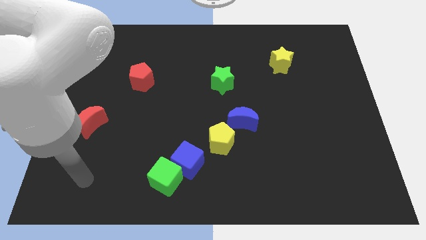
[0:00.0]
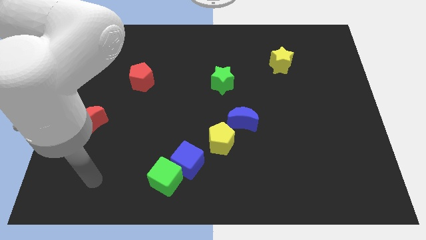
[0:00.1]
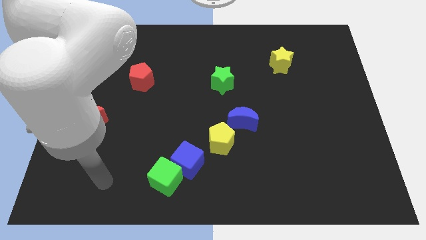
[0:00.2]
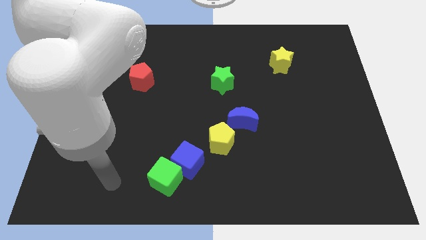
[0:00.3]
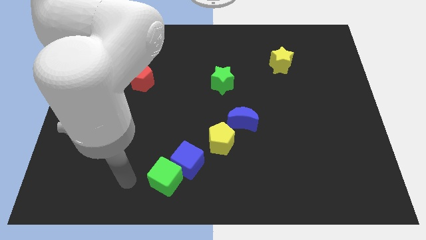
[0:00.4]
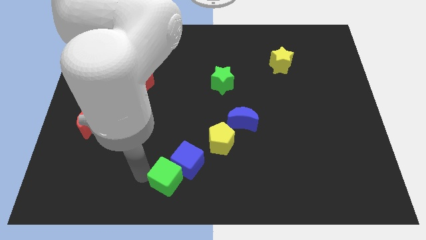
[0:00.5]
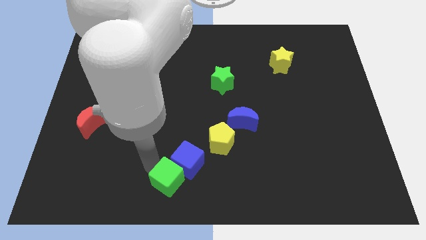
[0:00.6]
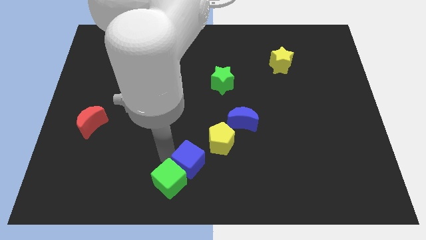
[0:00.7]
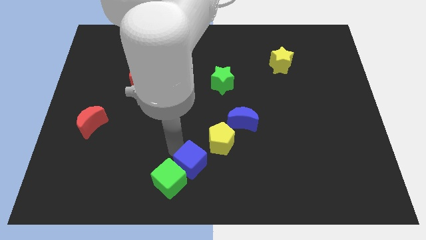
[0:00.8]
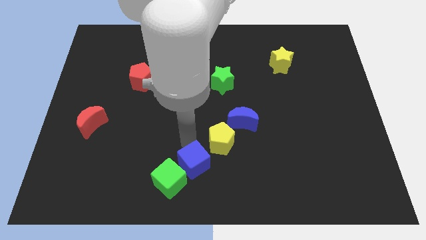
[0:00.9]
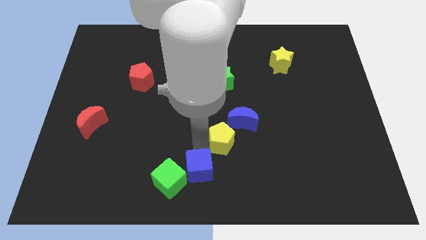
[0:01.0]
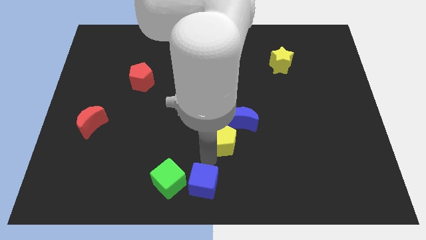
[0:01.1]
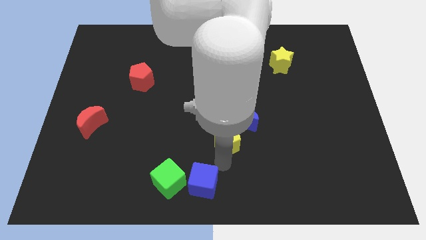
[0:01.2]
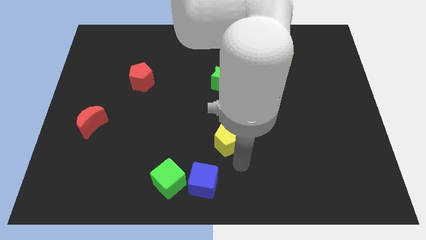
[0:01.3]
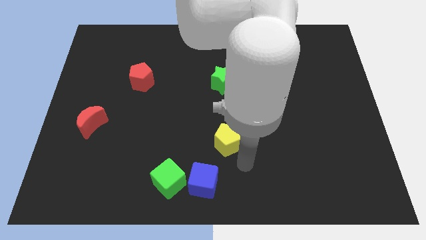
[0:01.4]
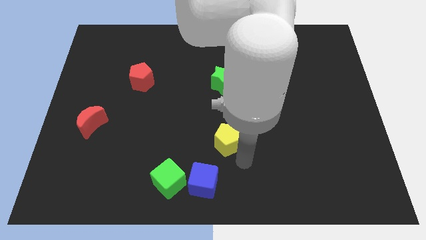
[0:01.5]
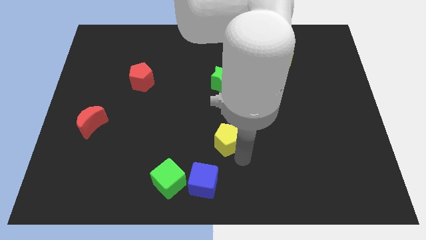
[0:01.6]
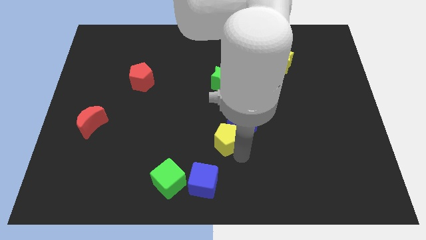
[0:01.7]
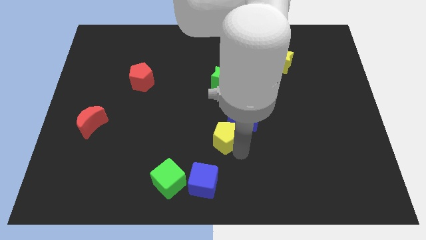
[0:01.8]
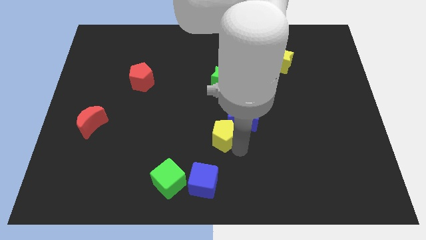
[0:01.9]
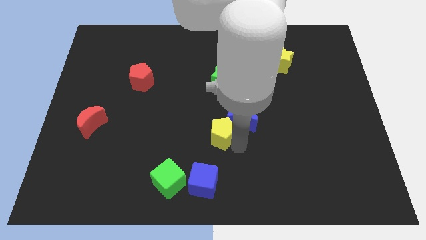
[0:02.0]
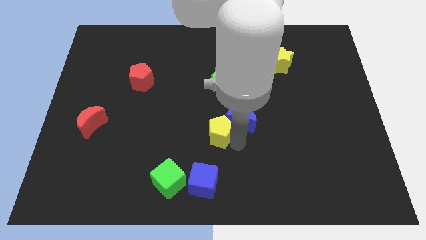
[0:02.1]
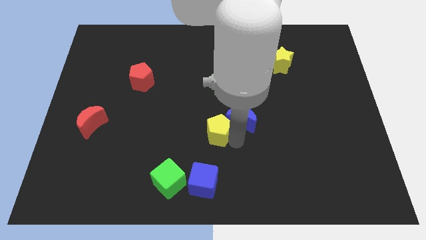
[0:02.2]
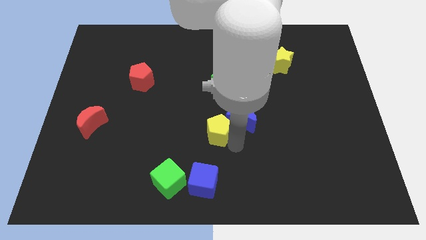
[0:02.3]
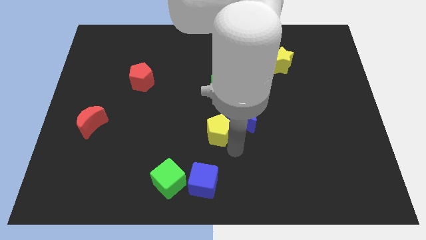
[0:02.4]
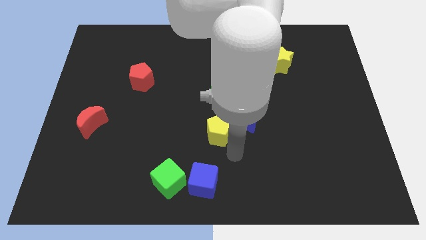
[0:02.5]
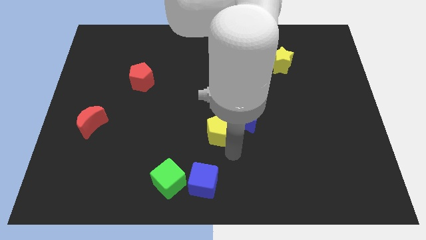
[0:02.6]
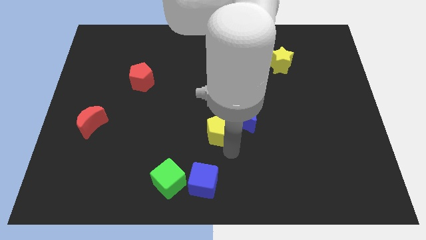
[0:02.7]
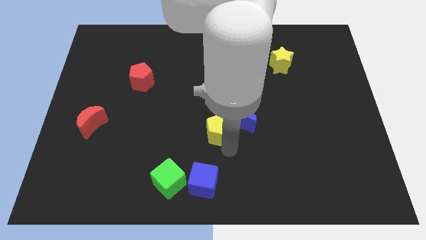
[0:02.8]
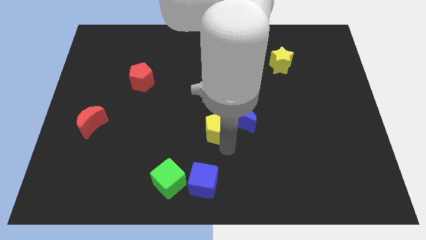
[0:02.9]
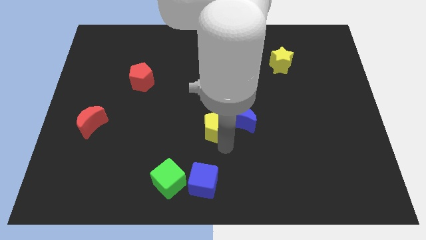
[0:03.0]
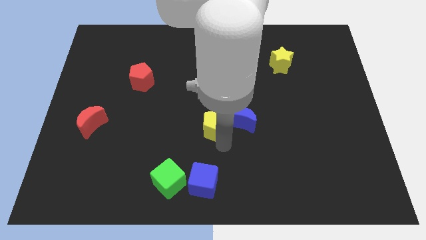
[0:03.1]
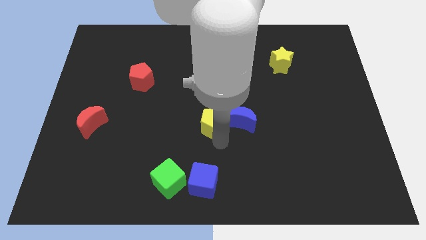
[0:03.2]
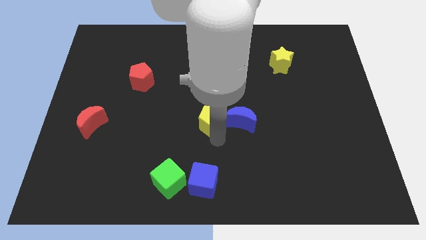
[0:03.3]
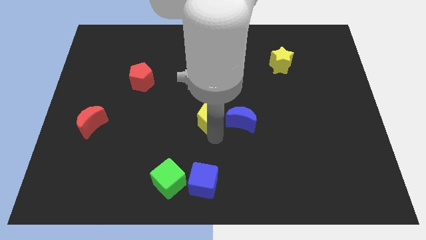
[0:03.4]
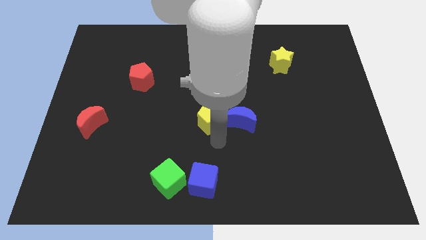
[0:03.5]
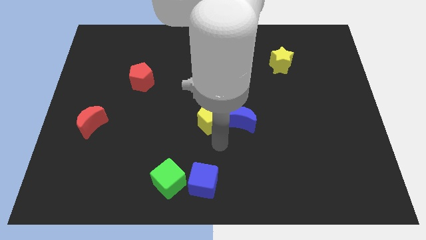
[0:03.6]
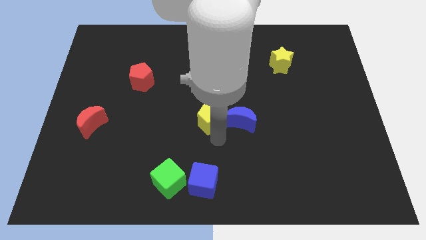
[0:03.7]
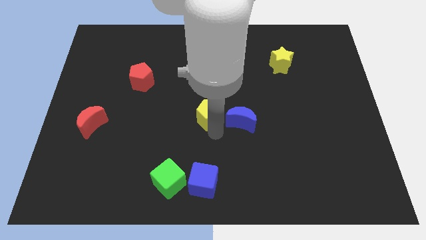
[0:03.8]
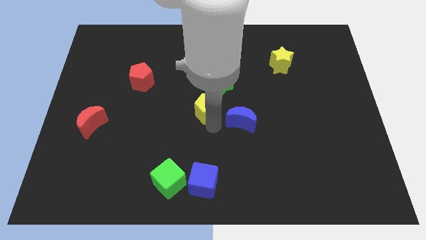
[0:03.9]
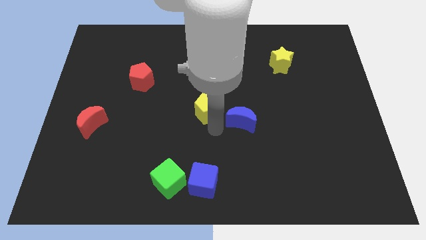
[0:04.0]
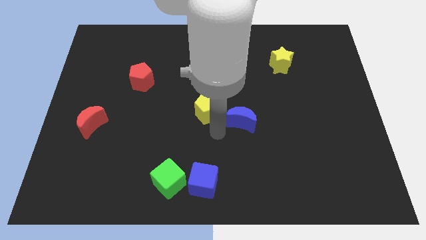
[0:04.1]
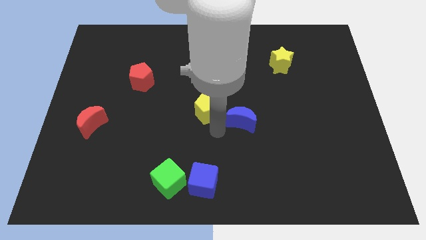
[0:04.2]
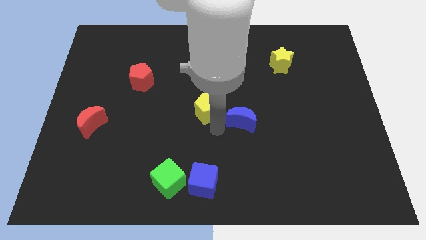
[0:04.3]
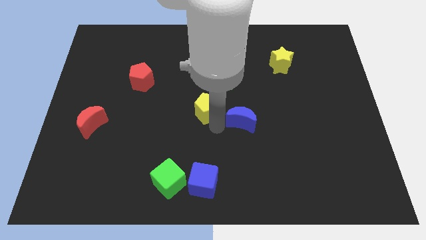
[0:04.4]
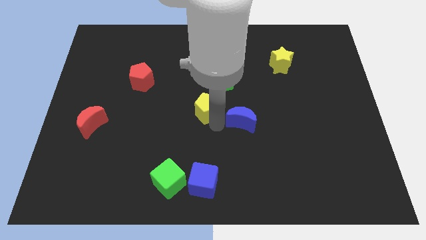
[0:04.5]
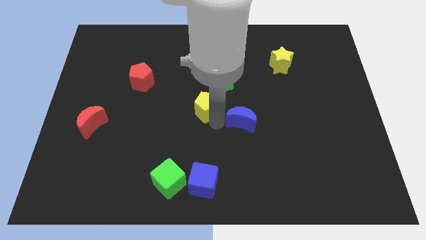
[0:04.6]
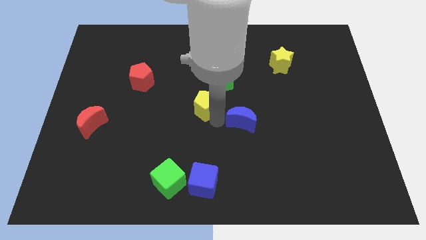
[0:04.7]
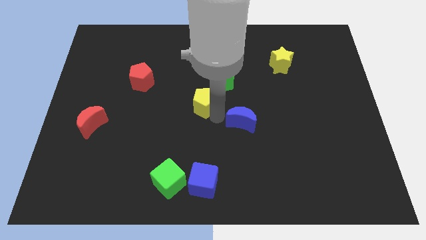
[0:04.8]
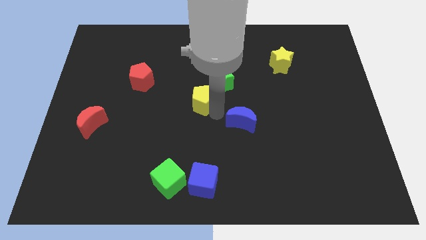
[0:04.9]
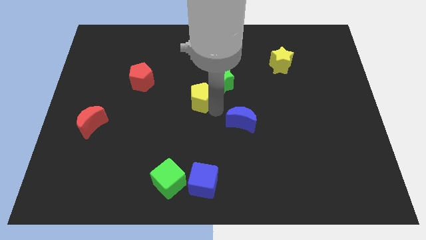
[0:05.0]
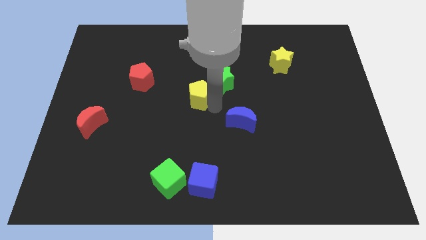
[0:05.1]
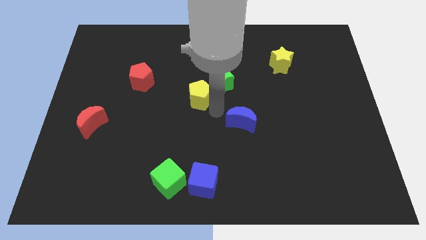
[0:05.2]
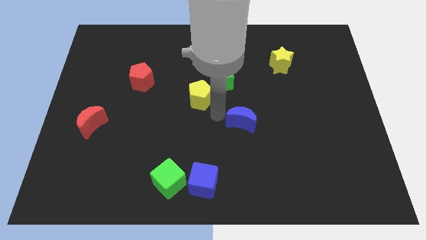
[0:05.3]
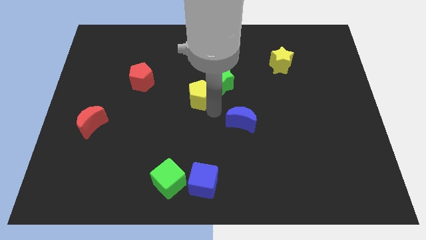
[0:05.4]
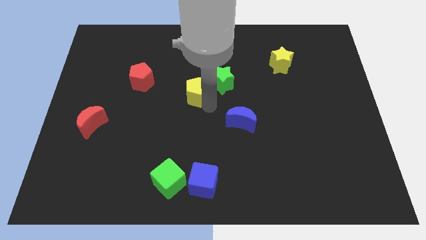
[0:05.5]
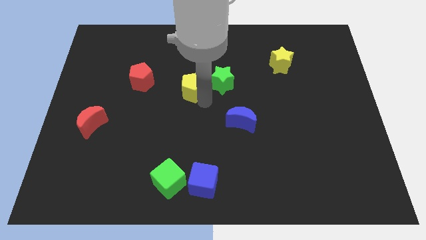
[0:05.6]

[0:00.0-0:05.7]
put the yellow pentagon to the right side of the red pentagon

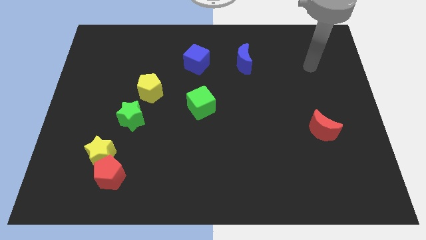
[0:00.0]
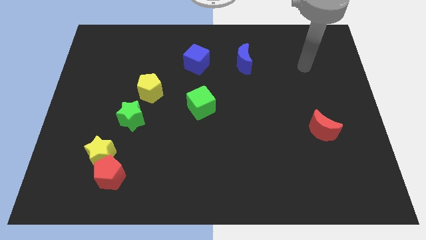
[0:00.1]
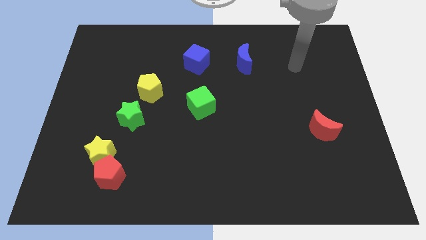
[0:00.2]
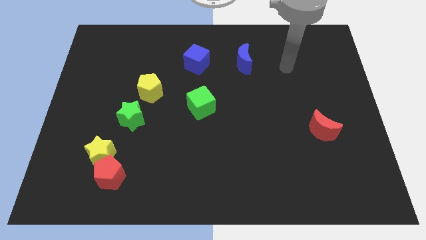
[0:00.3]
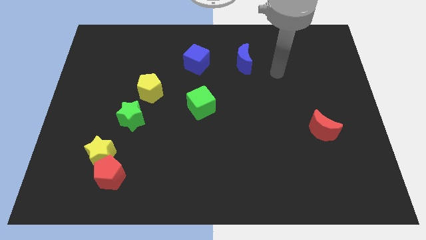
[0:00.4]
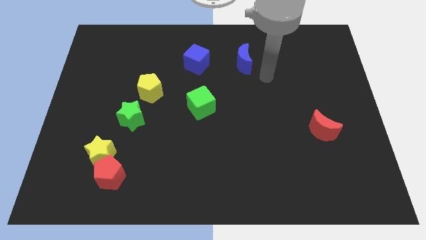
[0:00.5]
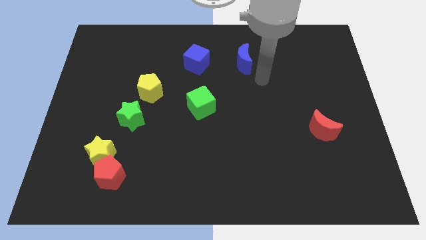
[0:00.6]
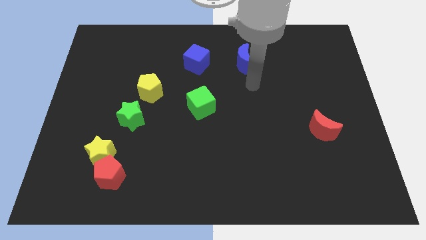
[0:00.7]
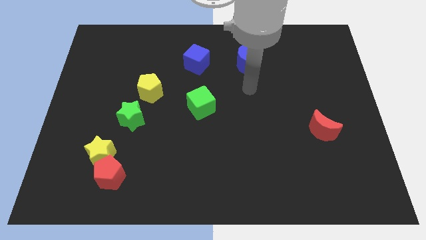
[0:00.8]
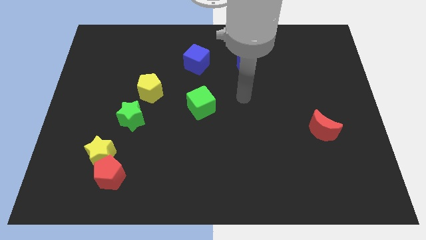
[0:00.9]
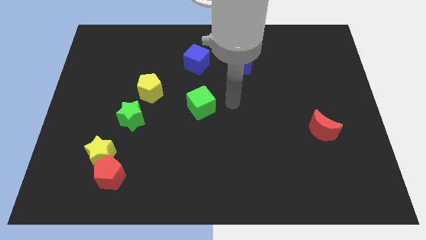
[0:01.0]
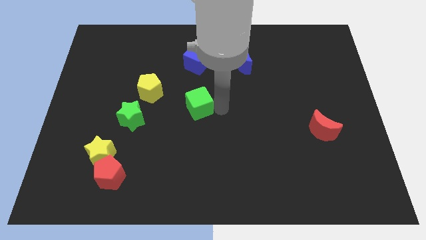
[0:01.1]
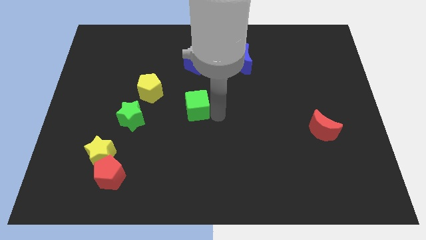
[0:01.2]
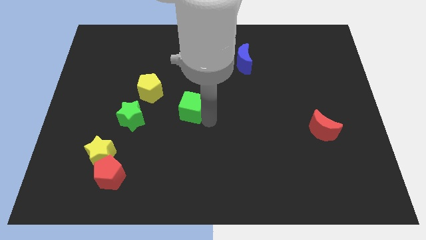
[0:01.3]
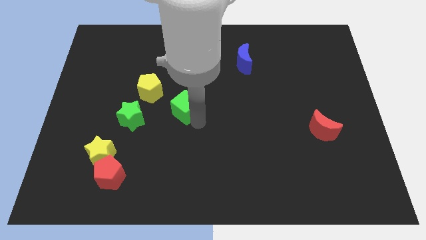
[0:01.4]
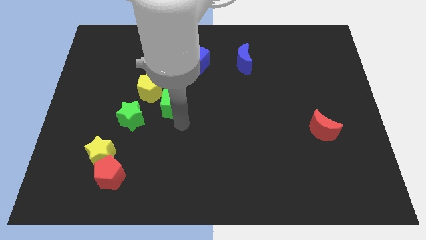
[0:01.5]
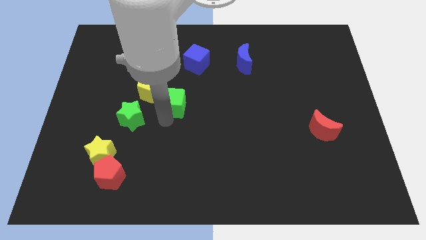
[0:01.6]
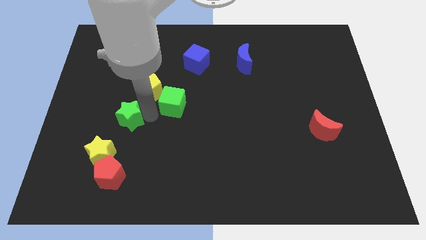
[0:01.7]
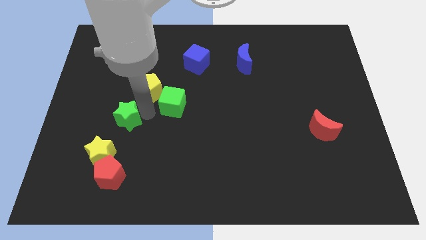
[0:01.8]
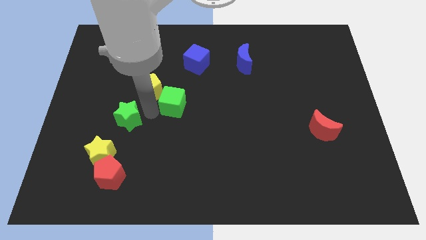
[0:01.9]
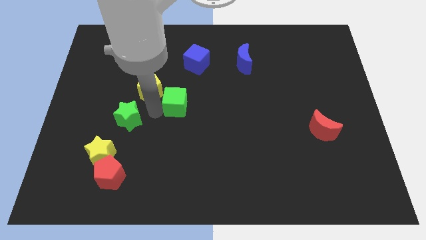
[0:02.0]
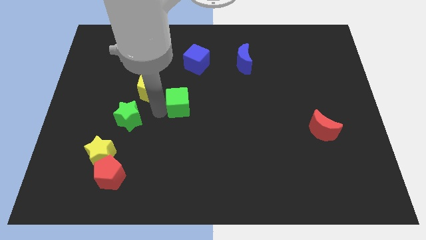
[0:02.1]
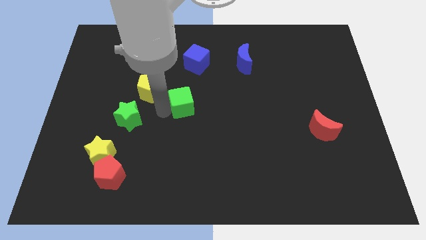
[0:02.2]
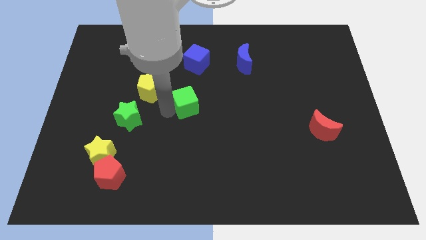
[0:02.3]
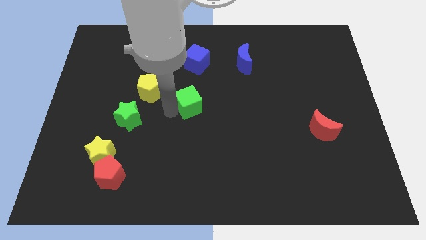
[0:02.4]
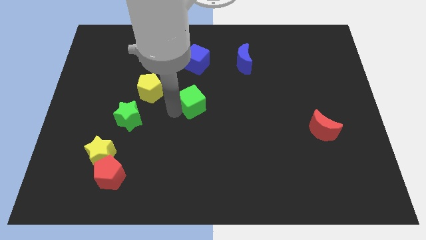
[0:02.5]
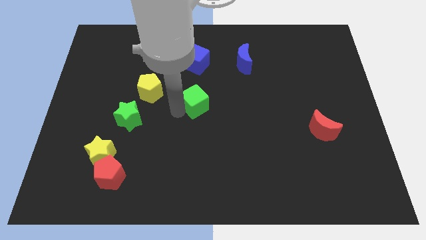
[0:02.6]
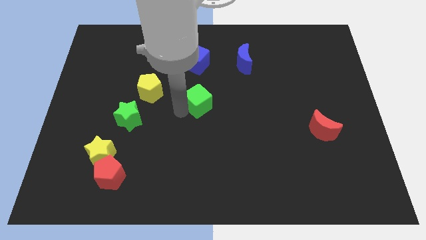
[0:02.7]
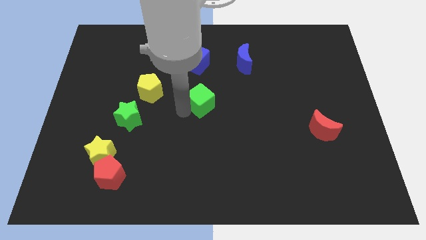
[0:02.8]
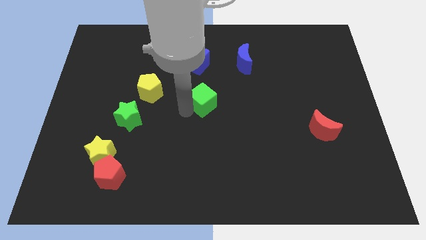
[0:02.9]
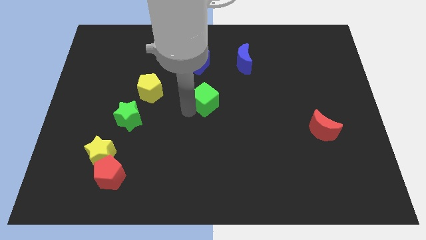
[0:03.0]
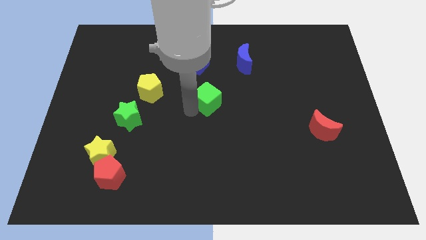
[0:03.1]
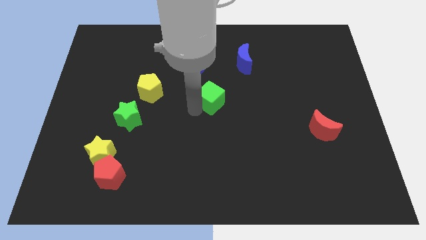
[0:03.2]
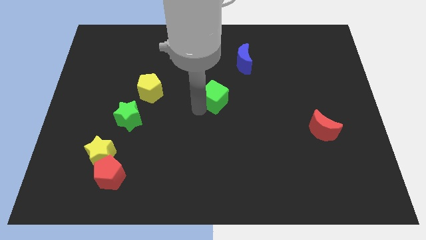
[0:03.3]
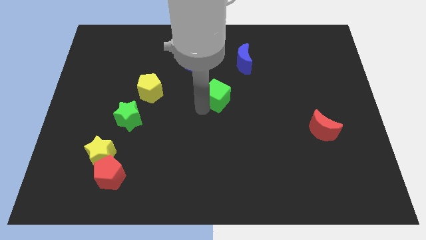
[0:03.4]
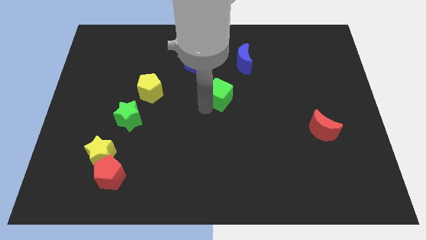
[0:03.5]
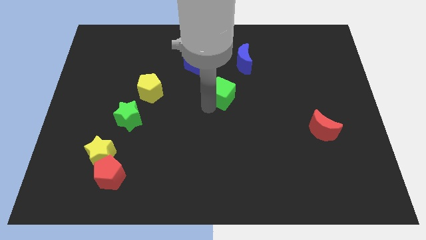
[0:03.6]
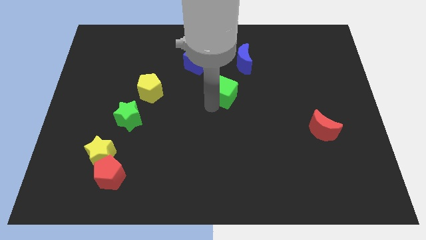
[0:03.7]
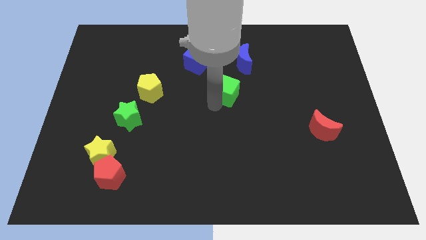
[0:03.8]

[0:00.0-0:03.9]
put the green cube to the bottom right of the blue cube
